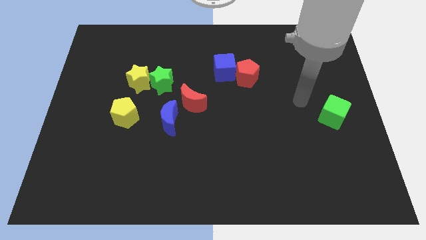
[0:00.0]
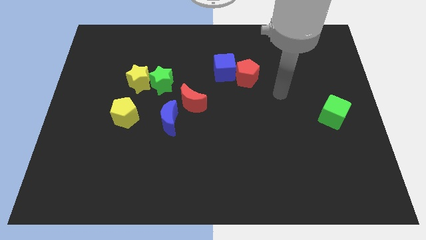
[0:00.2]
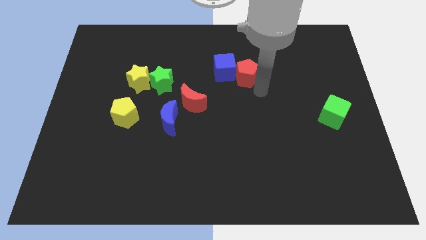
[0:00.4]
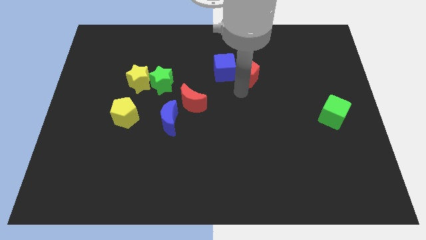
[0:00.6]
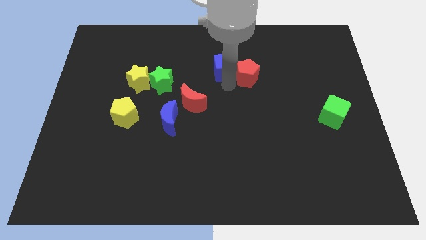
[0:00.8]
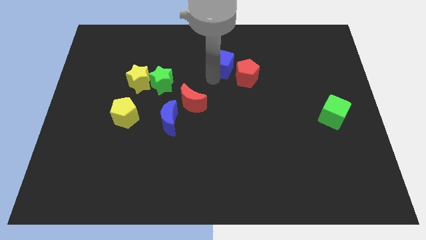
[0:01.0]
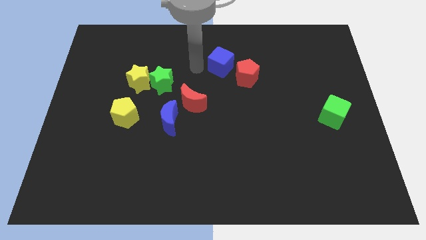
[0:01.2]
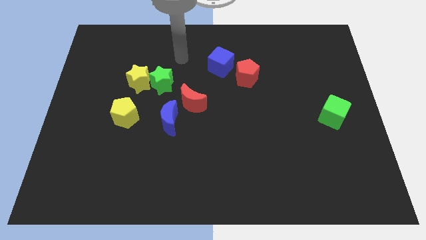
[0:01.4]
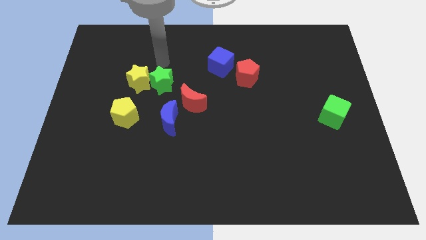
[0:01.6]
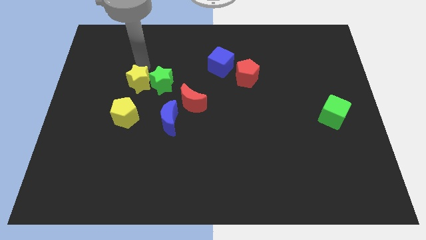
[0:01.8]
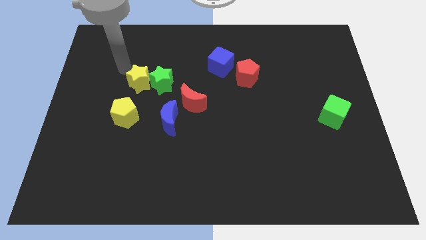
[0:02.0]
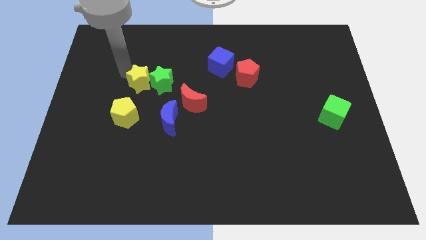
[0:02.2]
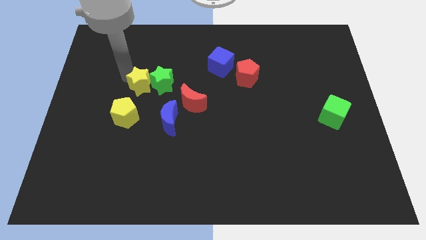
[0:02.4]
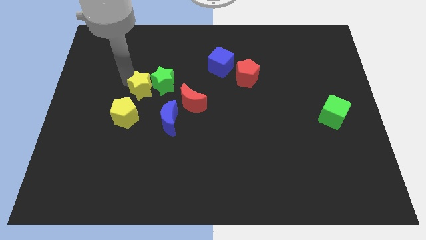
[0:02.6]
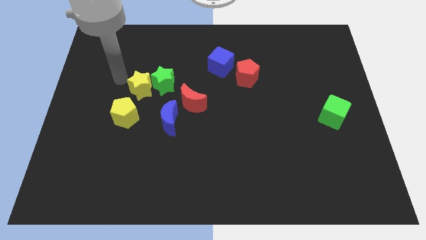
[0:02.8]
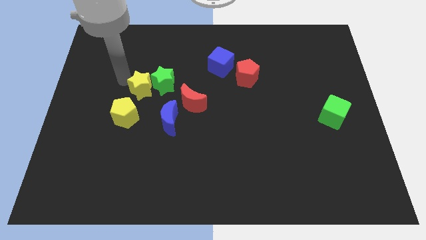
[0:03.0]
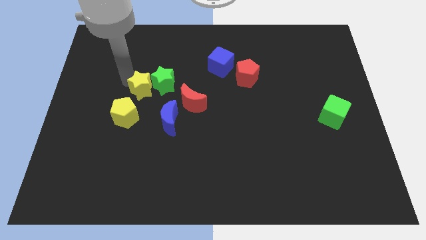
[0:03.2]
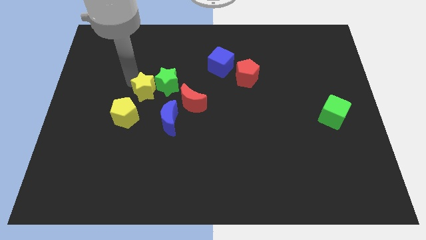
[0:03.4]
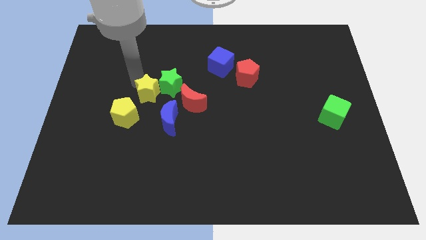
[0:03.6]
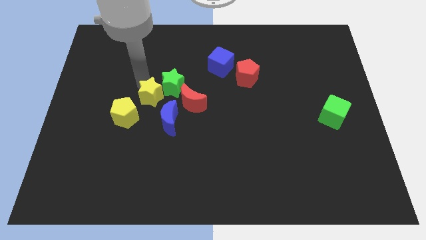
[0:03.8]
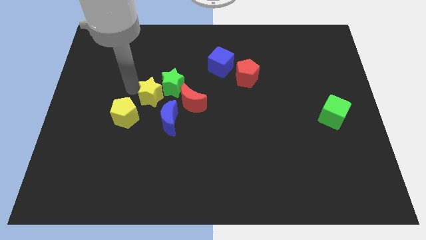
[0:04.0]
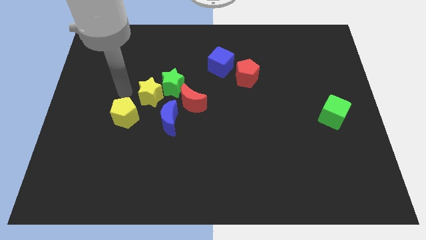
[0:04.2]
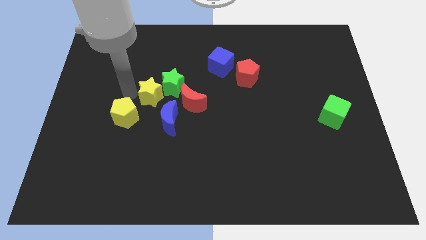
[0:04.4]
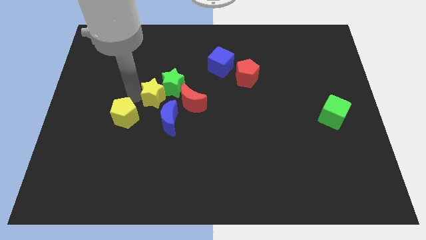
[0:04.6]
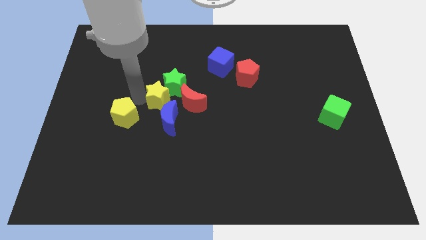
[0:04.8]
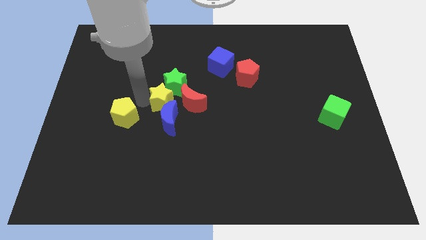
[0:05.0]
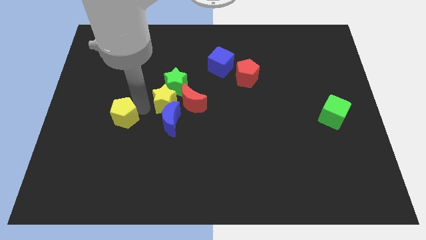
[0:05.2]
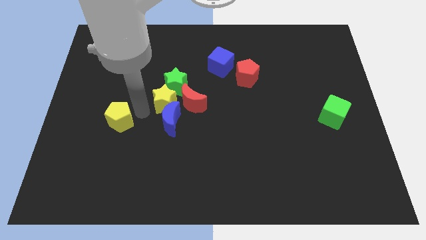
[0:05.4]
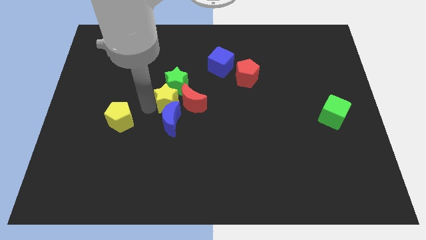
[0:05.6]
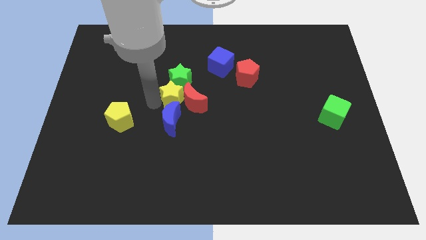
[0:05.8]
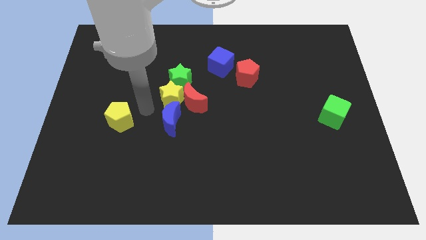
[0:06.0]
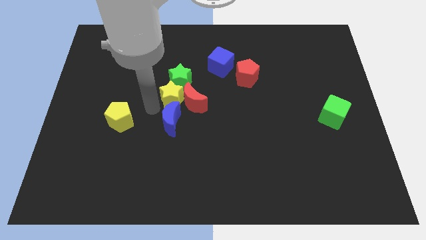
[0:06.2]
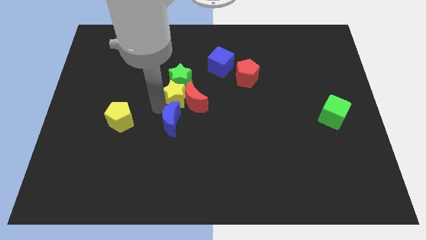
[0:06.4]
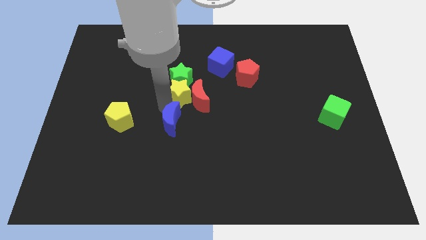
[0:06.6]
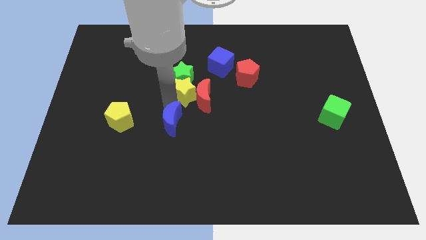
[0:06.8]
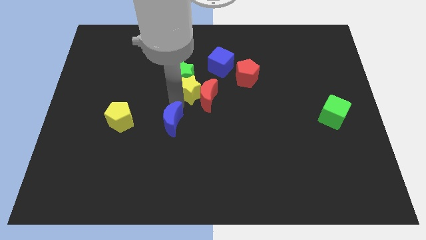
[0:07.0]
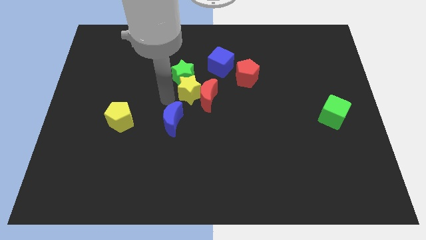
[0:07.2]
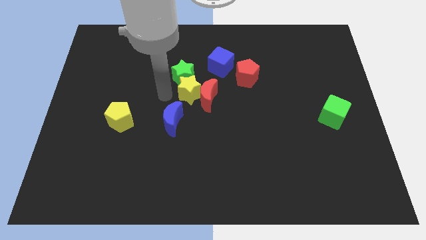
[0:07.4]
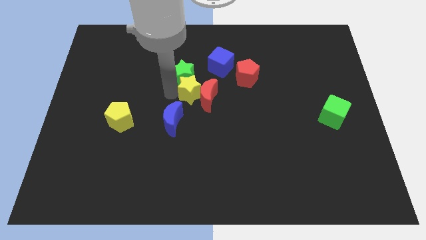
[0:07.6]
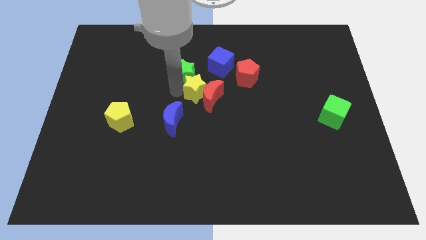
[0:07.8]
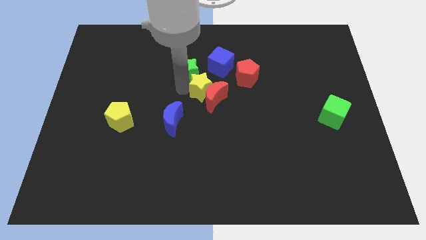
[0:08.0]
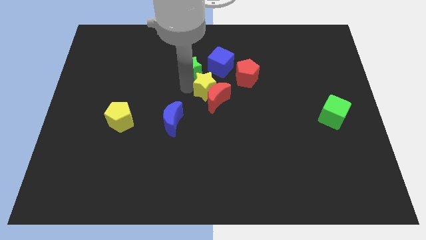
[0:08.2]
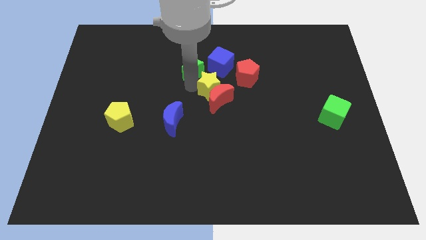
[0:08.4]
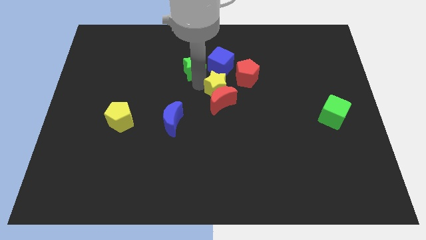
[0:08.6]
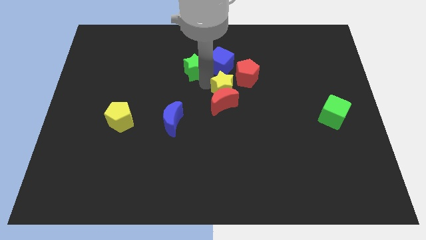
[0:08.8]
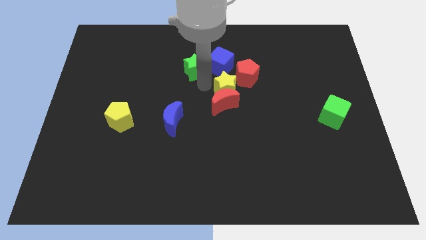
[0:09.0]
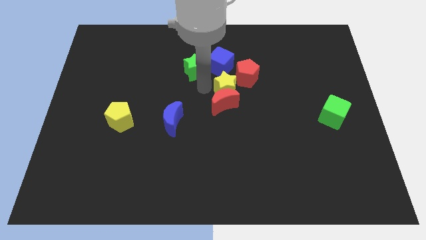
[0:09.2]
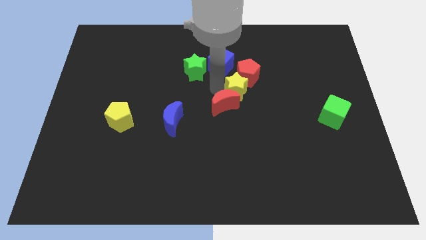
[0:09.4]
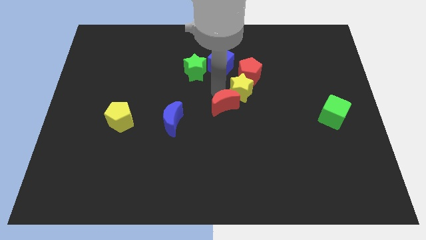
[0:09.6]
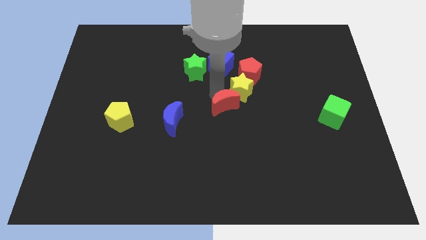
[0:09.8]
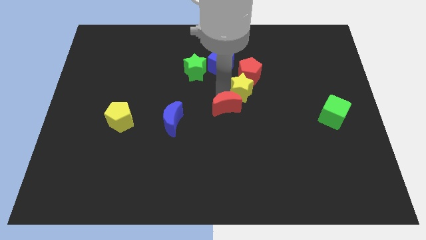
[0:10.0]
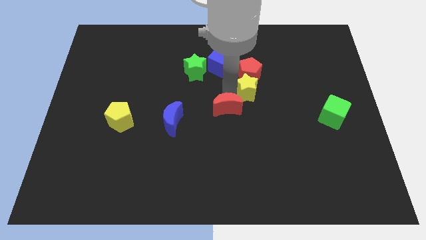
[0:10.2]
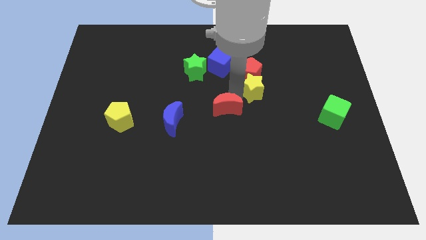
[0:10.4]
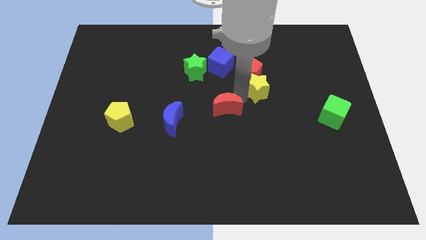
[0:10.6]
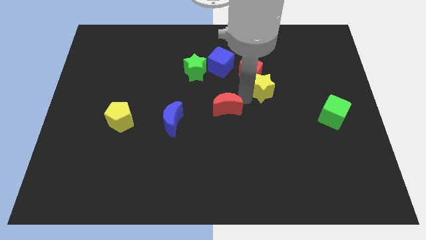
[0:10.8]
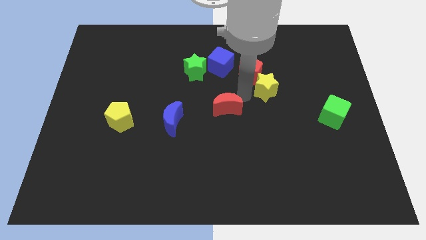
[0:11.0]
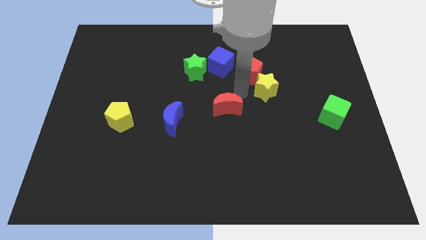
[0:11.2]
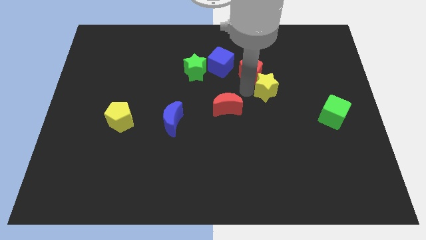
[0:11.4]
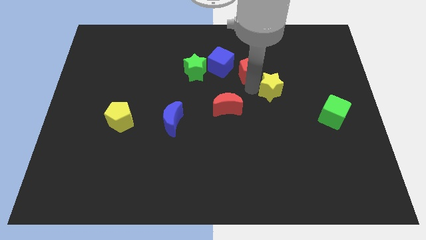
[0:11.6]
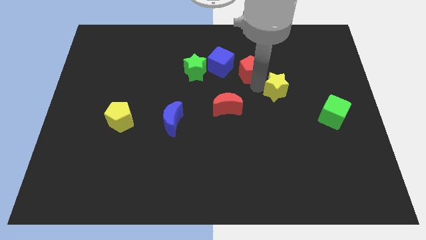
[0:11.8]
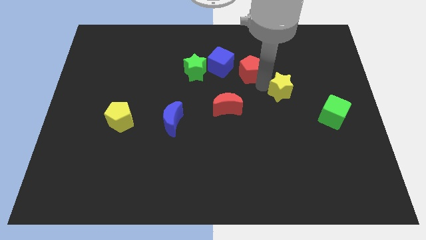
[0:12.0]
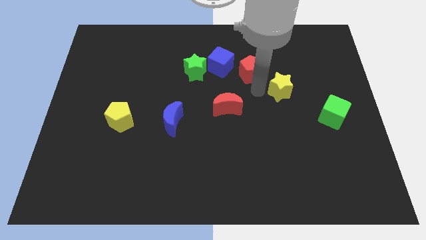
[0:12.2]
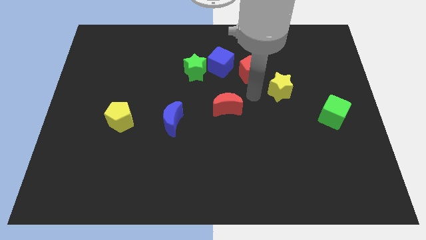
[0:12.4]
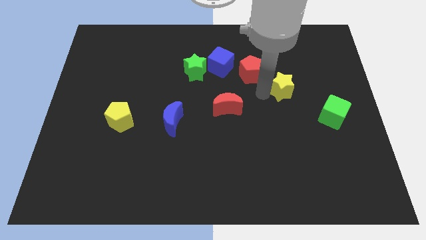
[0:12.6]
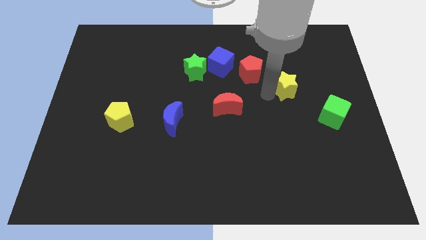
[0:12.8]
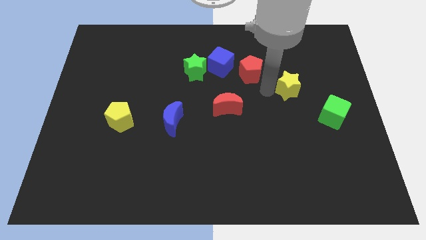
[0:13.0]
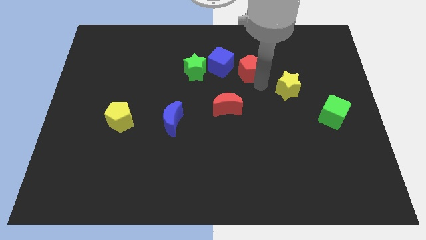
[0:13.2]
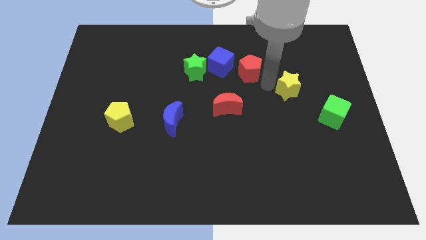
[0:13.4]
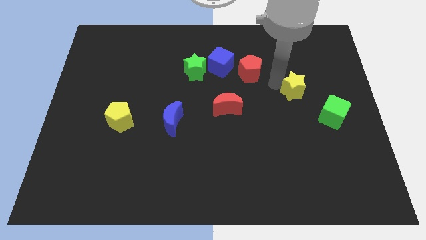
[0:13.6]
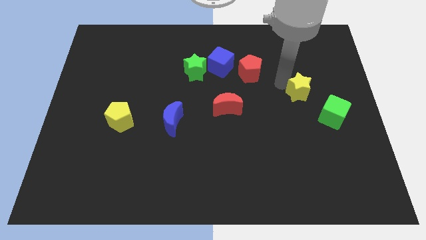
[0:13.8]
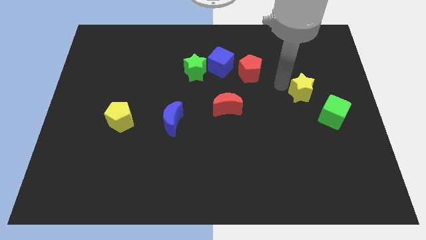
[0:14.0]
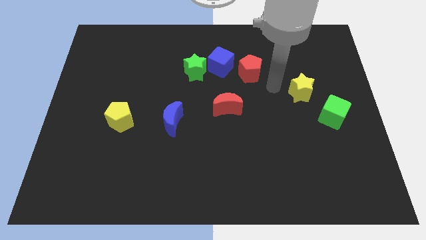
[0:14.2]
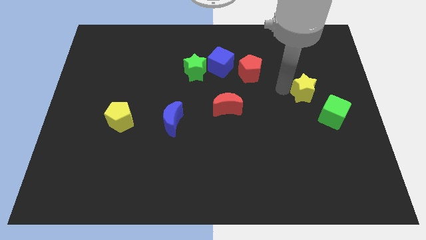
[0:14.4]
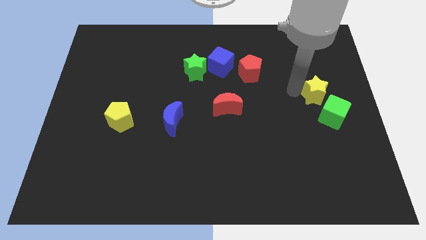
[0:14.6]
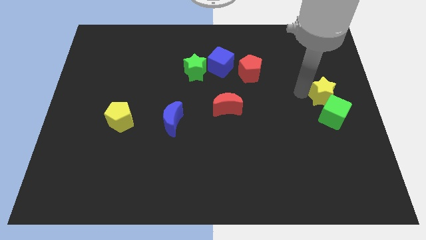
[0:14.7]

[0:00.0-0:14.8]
push the yellow star to the center right
